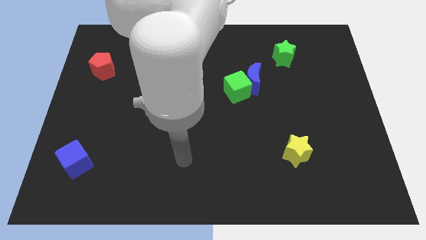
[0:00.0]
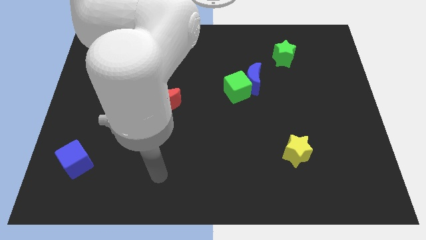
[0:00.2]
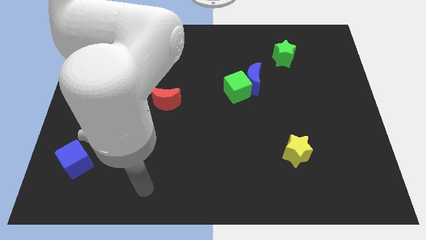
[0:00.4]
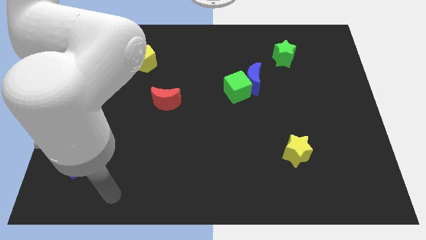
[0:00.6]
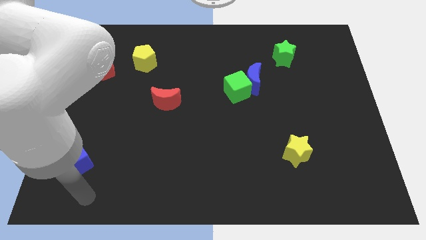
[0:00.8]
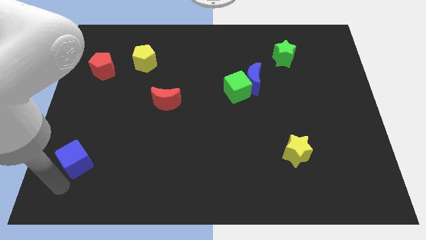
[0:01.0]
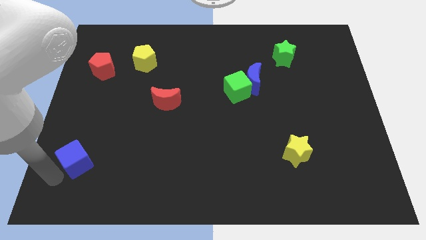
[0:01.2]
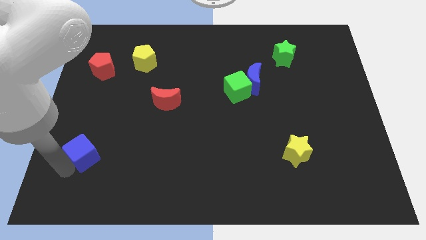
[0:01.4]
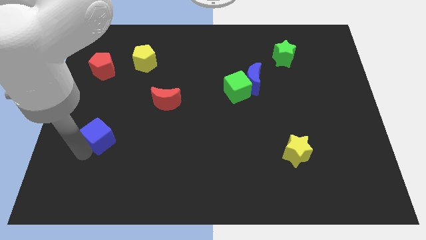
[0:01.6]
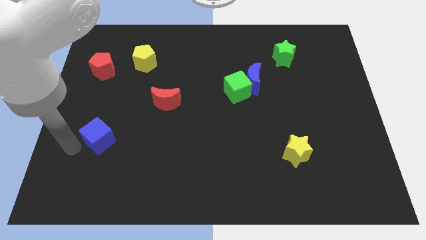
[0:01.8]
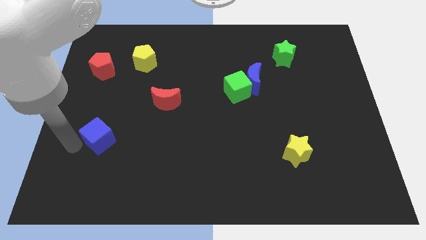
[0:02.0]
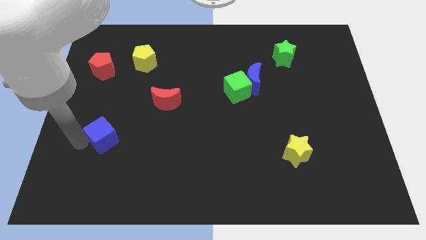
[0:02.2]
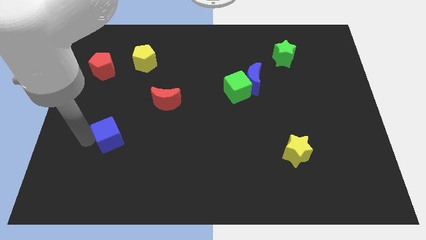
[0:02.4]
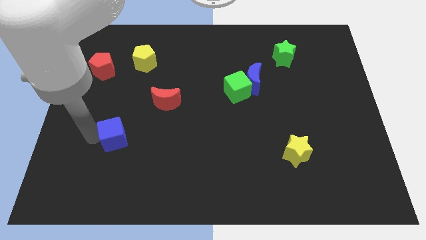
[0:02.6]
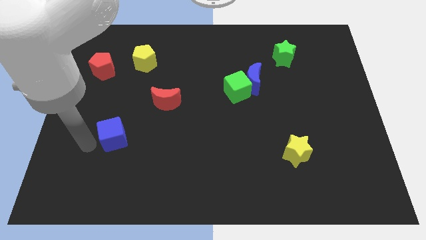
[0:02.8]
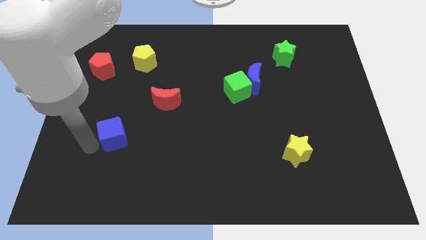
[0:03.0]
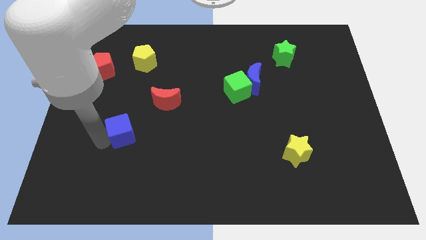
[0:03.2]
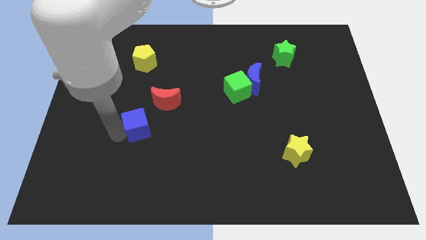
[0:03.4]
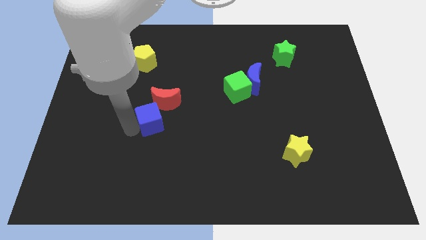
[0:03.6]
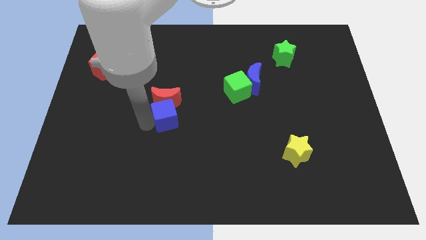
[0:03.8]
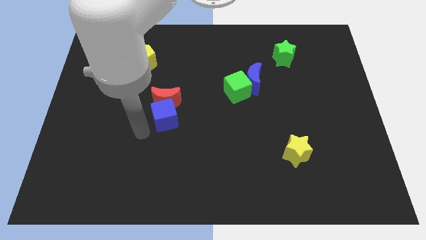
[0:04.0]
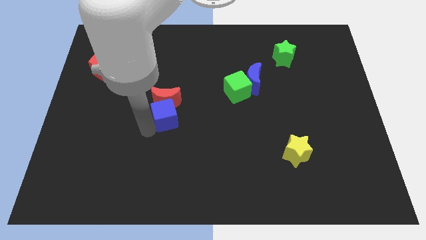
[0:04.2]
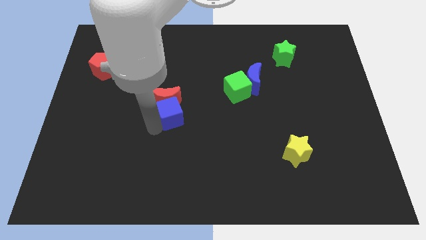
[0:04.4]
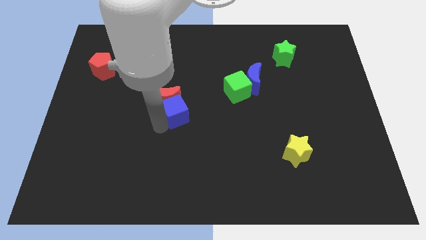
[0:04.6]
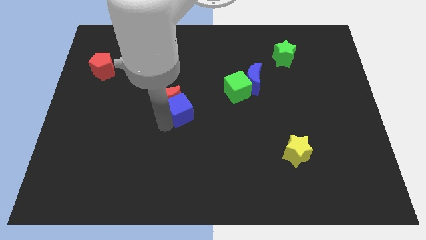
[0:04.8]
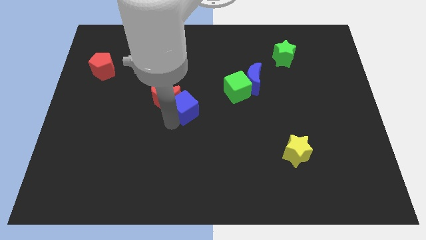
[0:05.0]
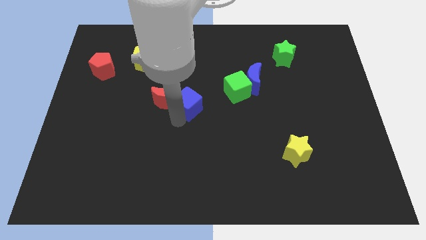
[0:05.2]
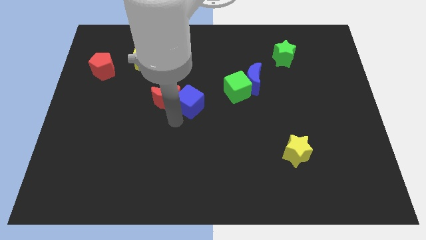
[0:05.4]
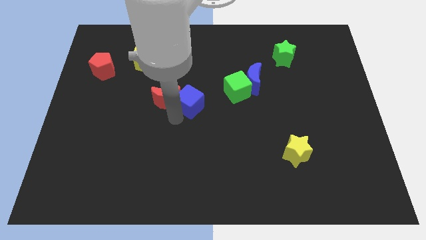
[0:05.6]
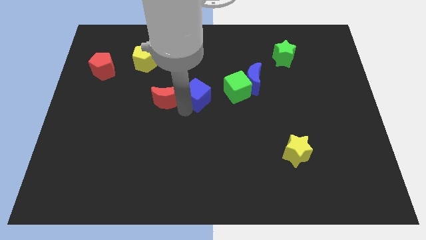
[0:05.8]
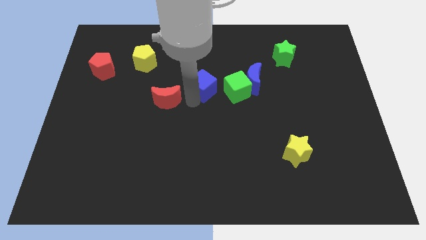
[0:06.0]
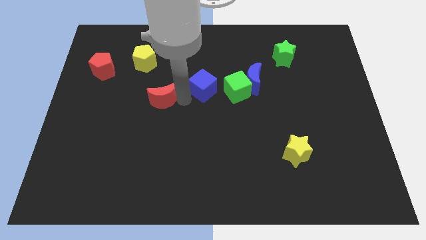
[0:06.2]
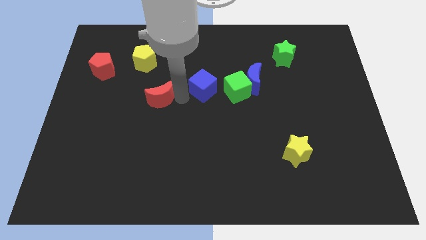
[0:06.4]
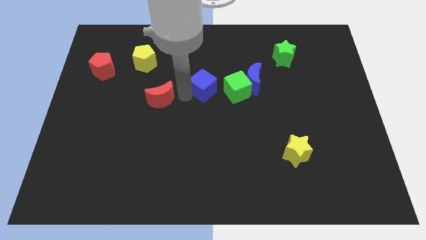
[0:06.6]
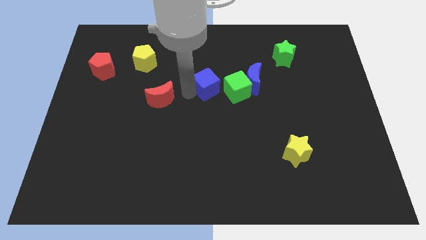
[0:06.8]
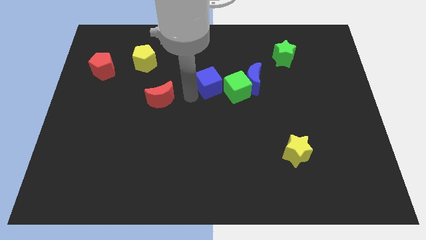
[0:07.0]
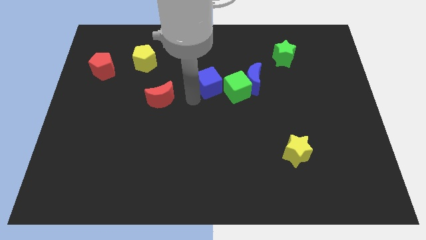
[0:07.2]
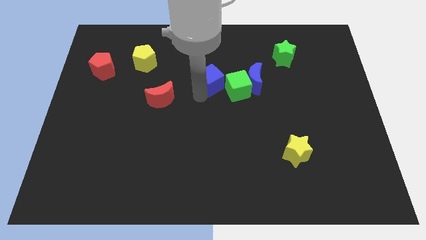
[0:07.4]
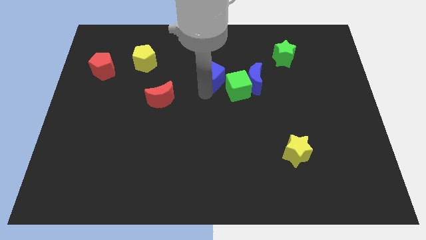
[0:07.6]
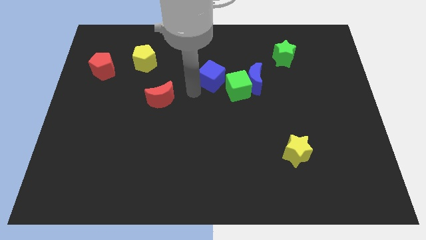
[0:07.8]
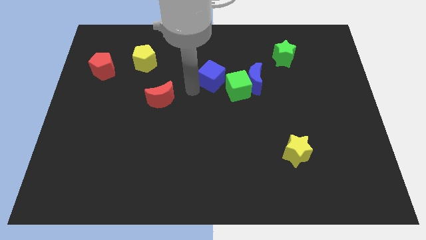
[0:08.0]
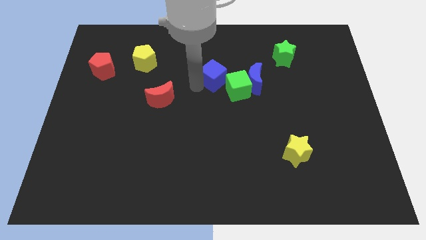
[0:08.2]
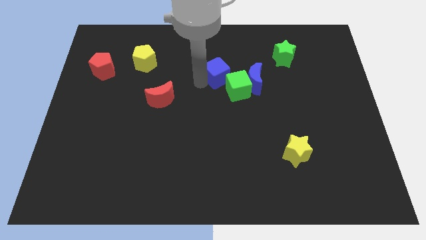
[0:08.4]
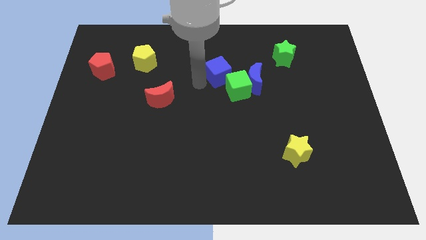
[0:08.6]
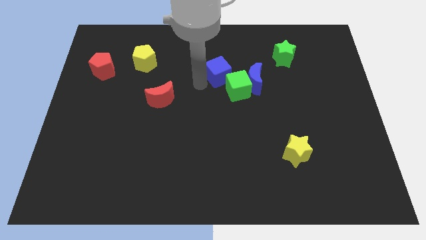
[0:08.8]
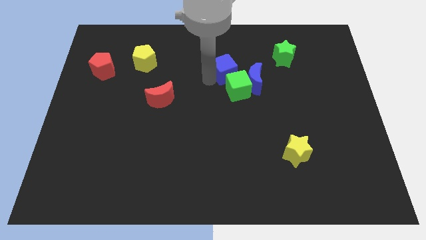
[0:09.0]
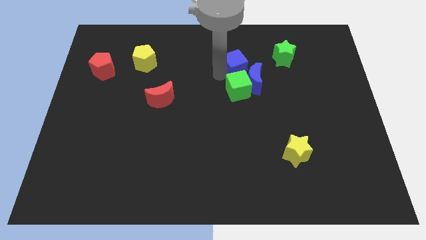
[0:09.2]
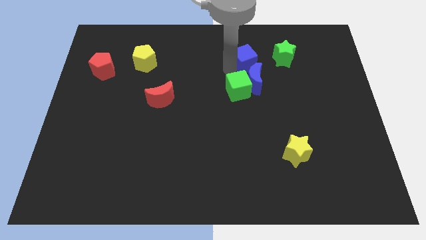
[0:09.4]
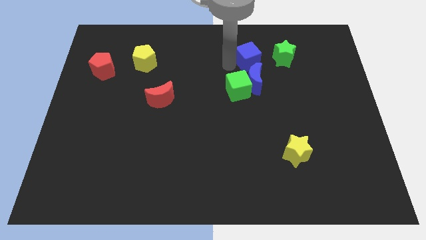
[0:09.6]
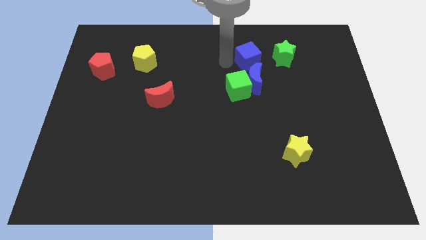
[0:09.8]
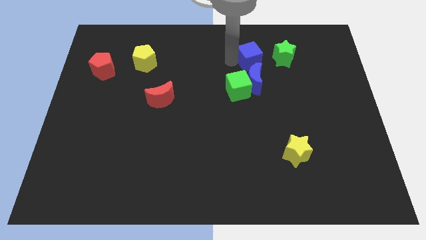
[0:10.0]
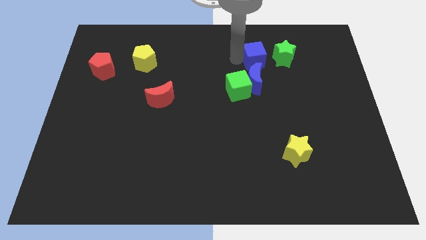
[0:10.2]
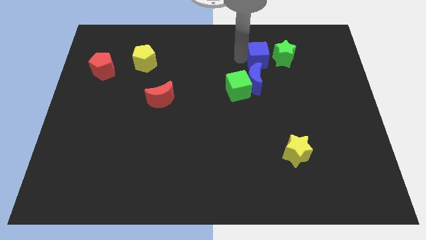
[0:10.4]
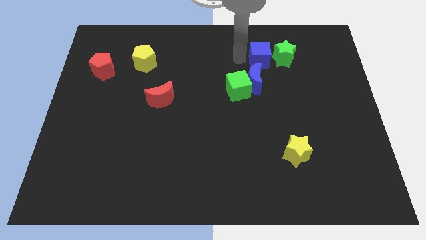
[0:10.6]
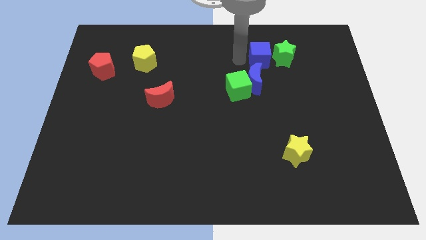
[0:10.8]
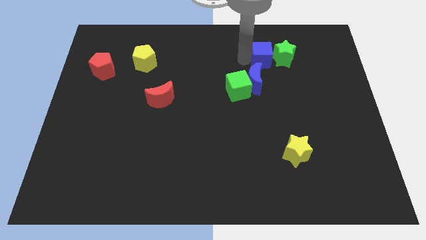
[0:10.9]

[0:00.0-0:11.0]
slide the blue cube towards the green star

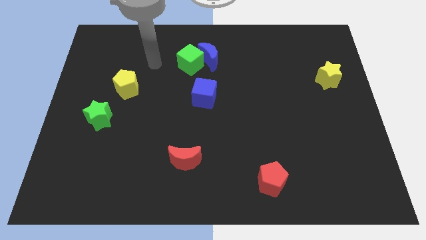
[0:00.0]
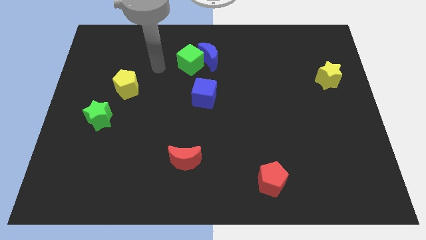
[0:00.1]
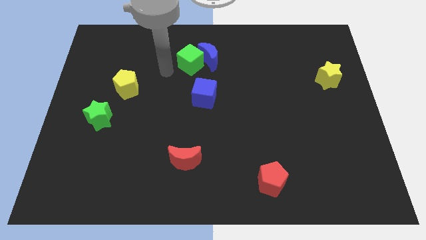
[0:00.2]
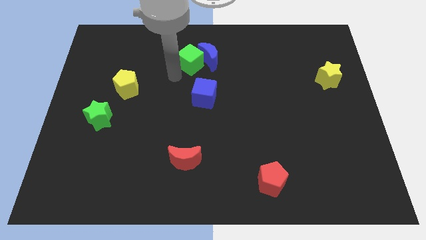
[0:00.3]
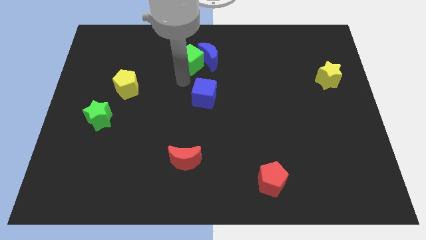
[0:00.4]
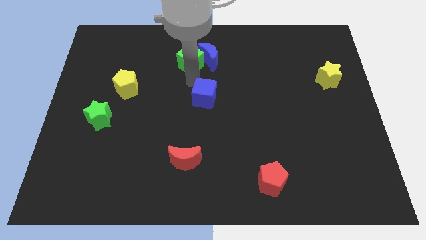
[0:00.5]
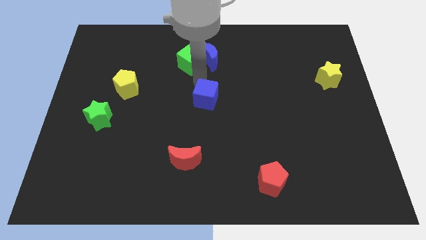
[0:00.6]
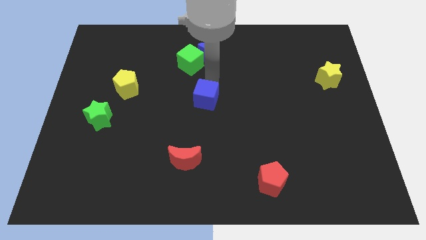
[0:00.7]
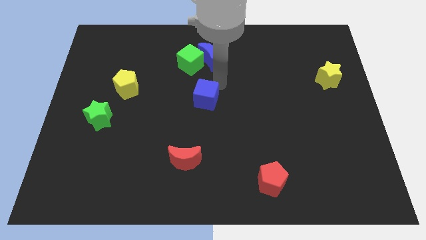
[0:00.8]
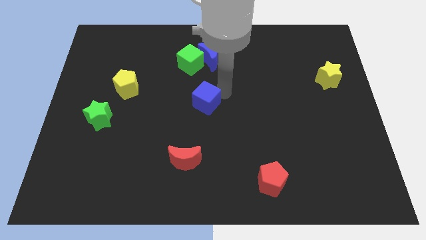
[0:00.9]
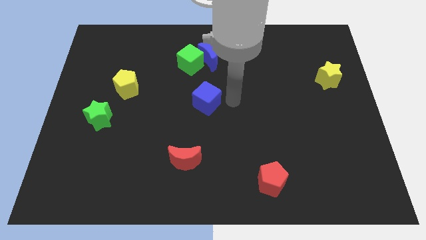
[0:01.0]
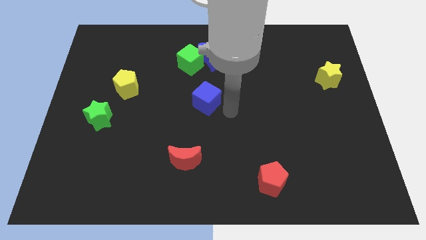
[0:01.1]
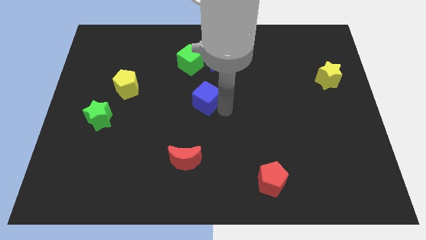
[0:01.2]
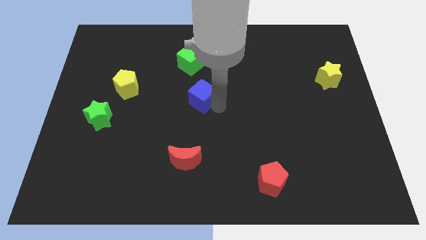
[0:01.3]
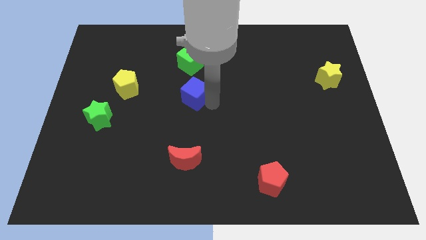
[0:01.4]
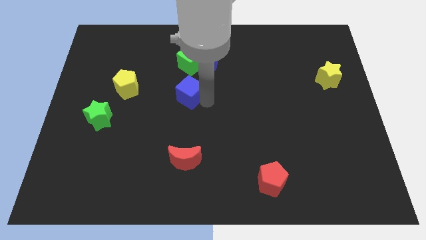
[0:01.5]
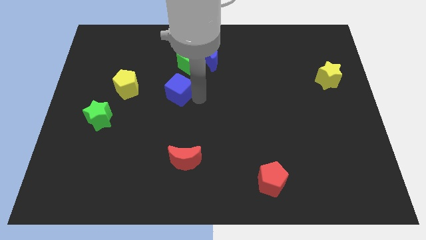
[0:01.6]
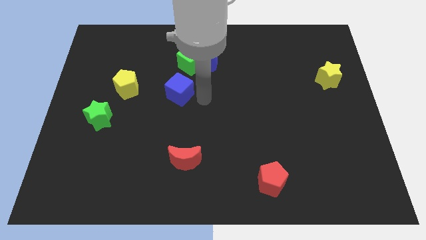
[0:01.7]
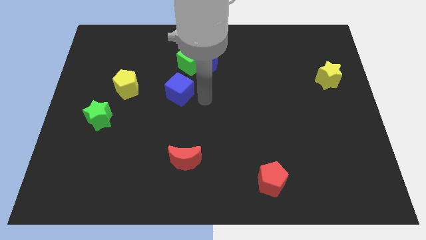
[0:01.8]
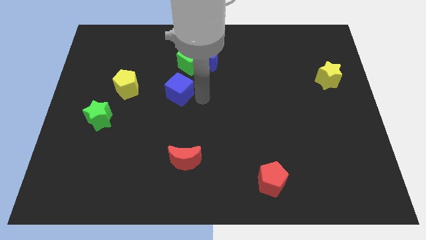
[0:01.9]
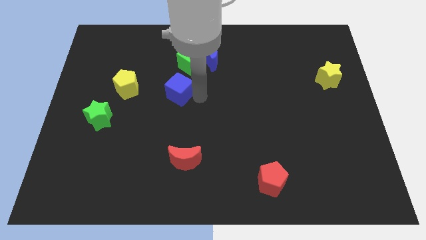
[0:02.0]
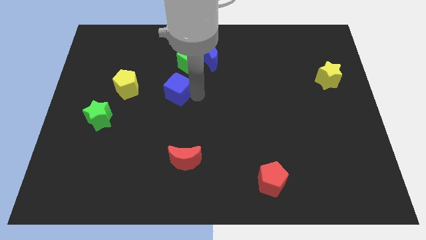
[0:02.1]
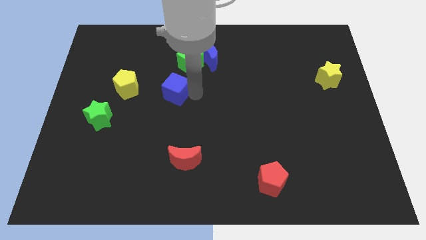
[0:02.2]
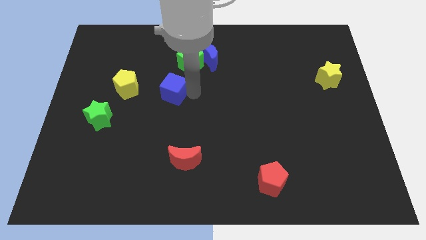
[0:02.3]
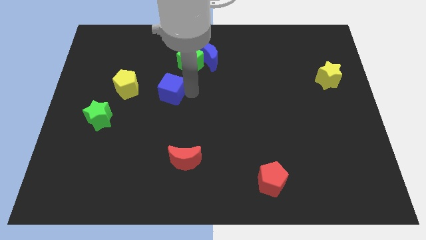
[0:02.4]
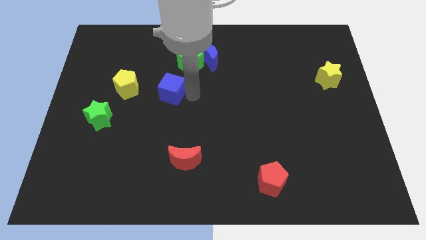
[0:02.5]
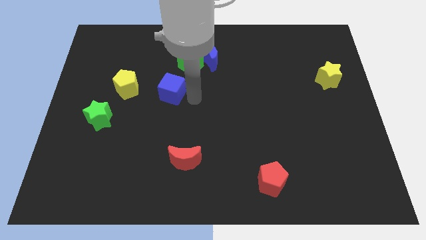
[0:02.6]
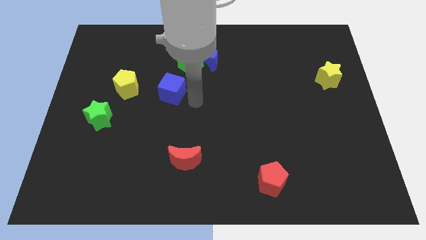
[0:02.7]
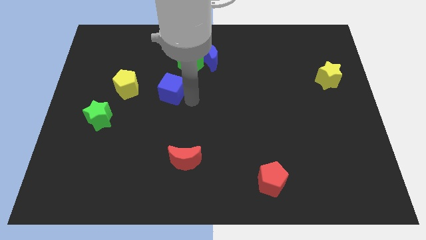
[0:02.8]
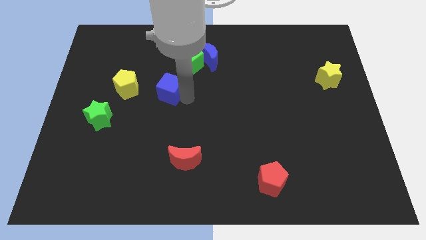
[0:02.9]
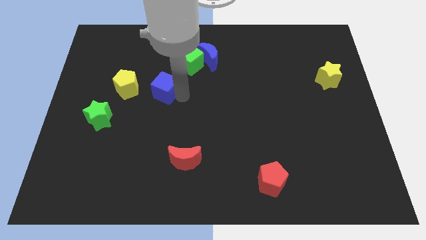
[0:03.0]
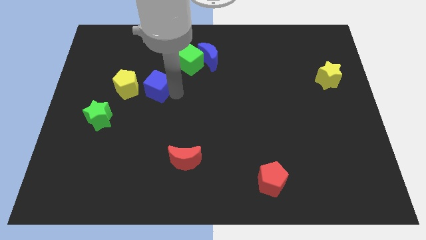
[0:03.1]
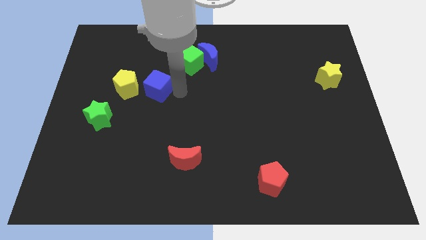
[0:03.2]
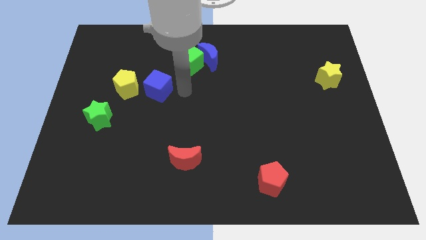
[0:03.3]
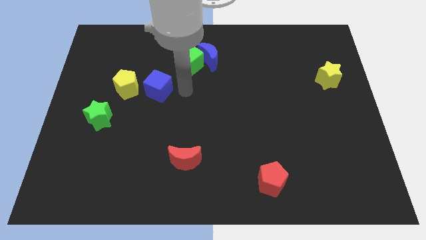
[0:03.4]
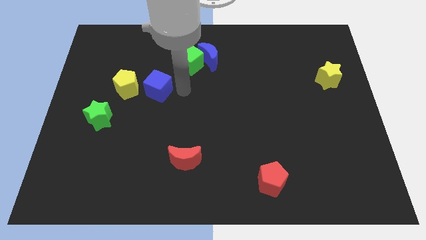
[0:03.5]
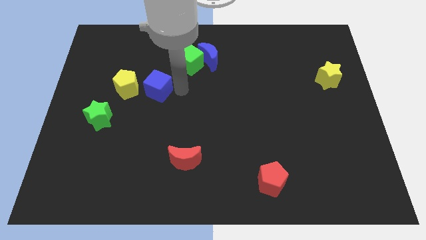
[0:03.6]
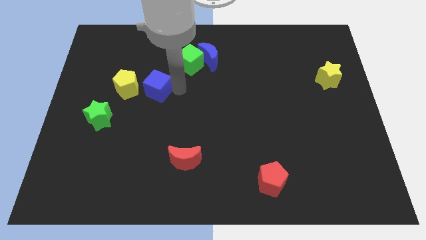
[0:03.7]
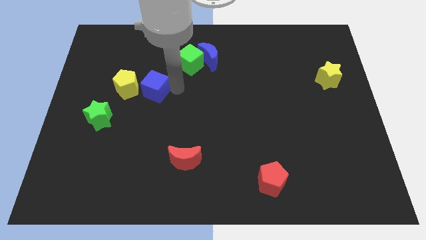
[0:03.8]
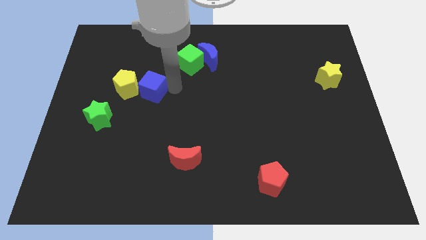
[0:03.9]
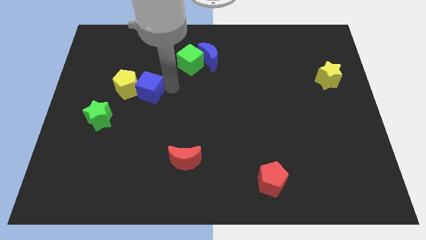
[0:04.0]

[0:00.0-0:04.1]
push the blue cube towards the yellow pentagon
